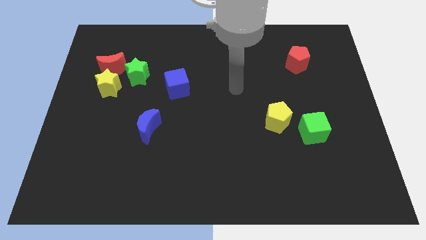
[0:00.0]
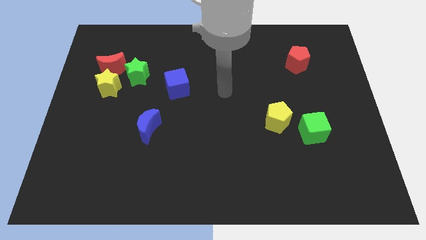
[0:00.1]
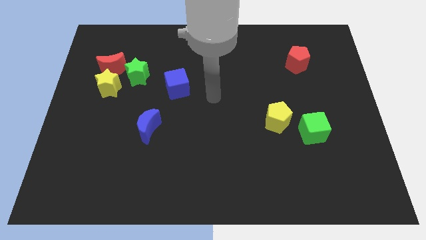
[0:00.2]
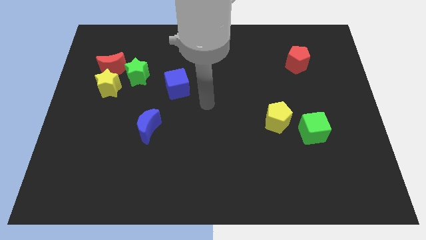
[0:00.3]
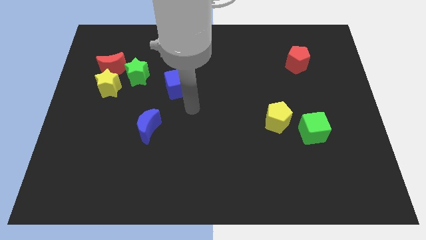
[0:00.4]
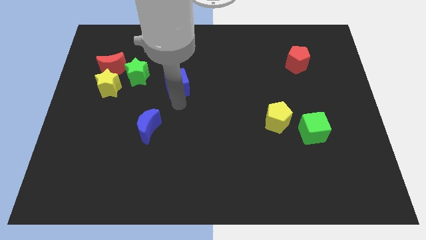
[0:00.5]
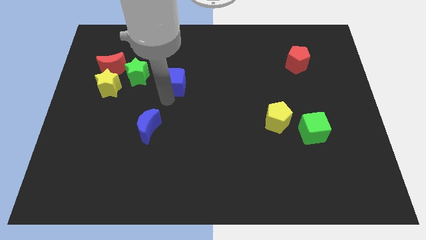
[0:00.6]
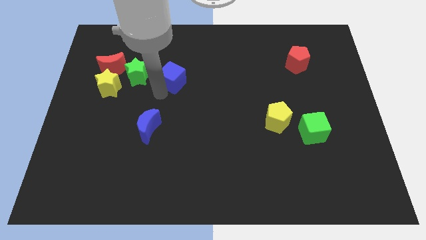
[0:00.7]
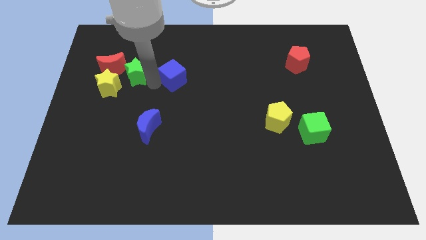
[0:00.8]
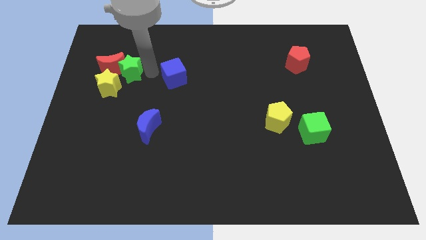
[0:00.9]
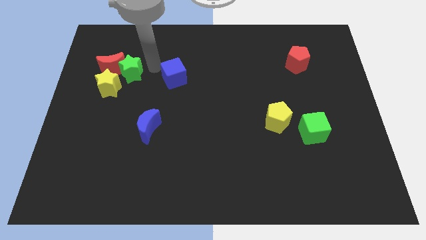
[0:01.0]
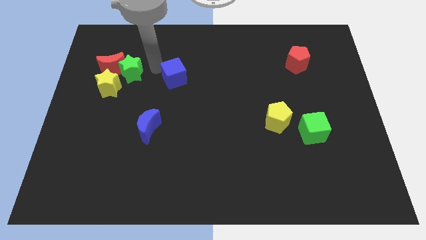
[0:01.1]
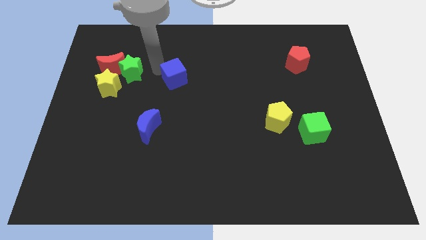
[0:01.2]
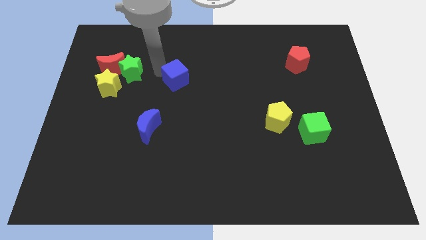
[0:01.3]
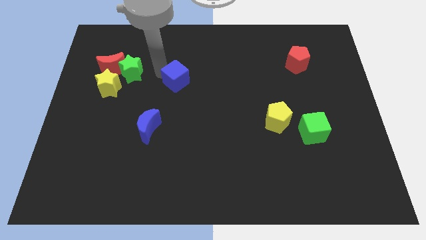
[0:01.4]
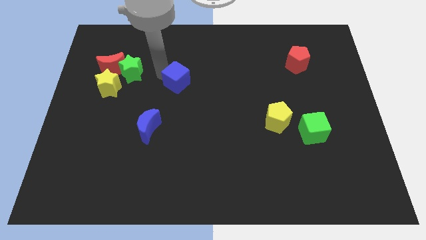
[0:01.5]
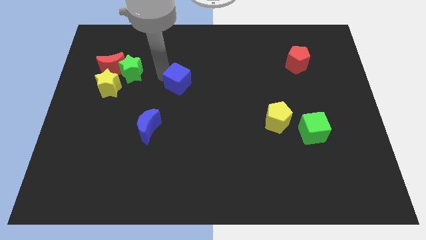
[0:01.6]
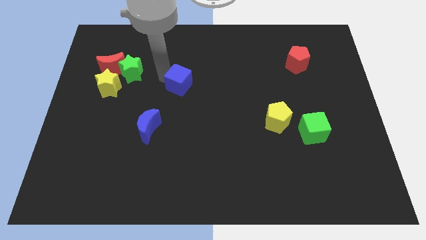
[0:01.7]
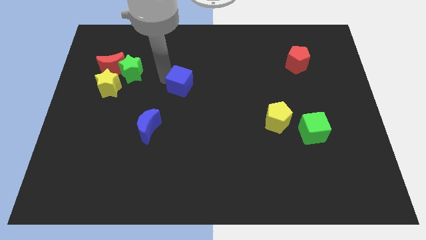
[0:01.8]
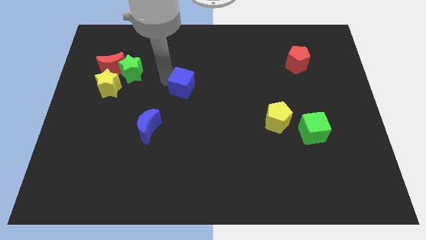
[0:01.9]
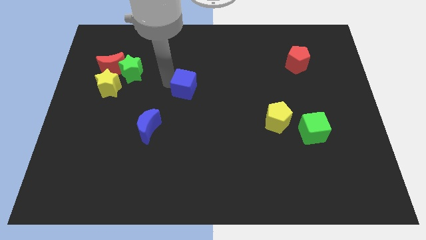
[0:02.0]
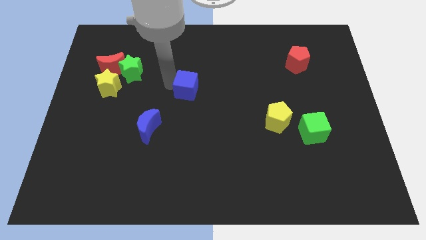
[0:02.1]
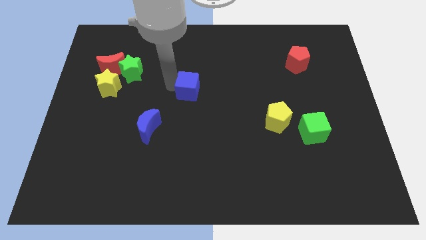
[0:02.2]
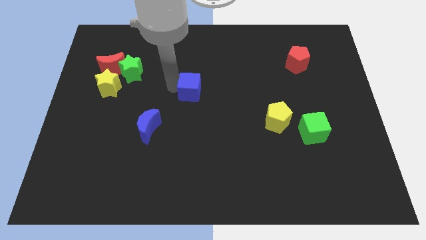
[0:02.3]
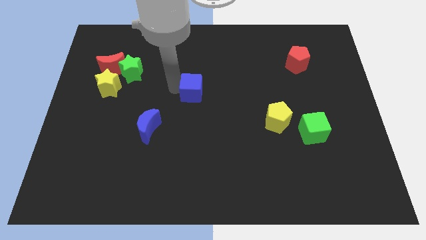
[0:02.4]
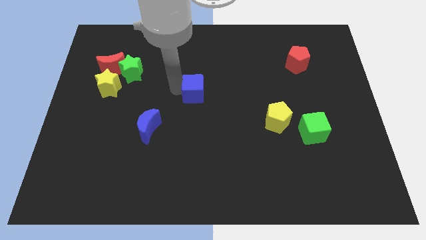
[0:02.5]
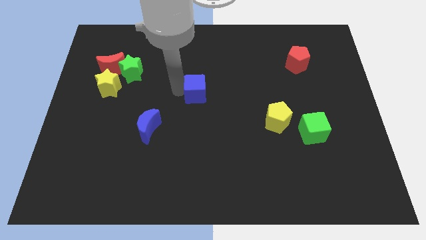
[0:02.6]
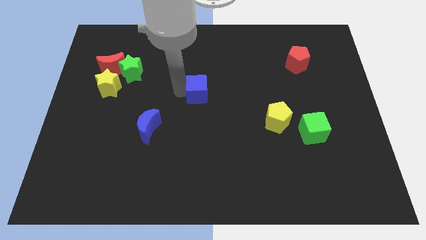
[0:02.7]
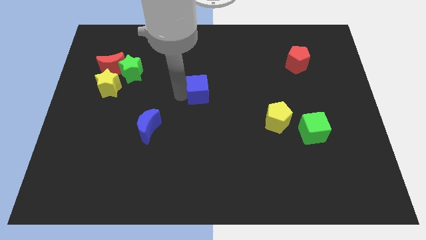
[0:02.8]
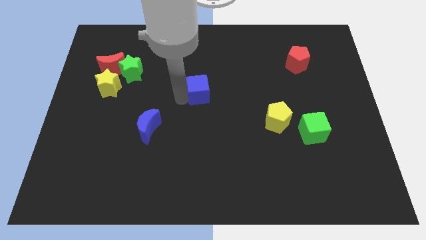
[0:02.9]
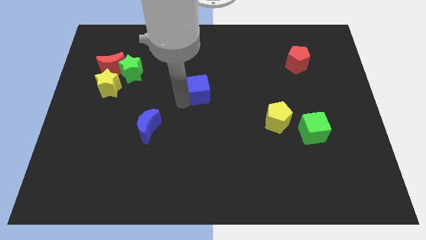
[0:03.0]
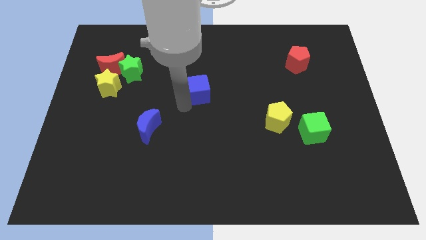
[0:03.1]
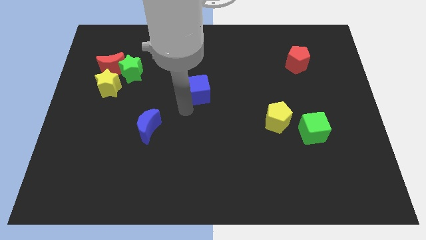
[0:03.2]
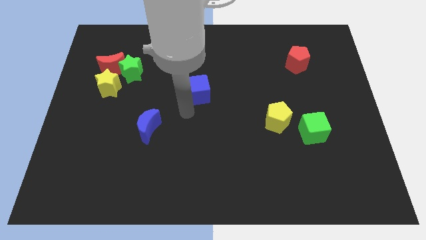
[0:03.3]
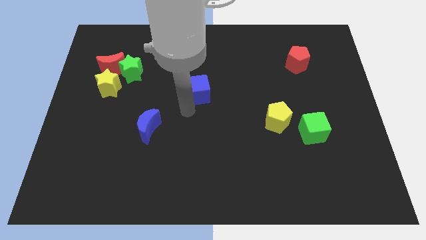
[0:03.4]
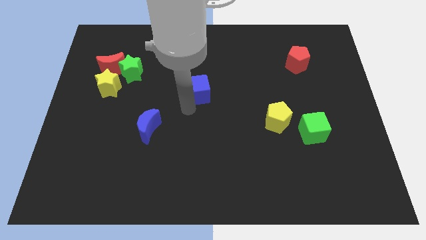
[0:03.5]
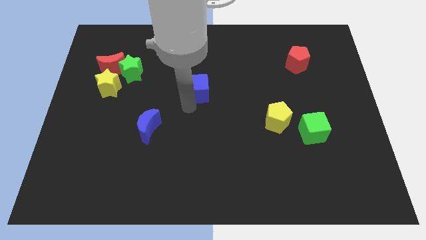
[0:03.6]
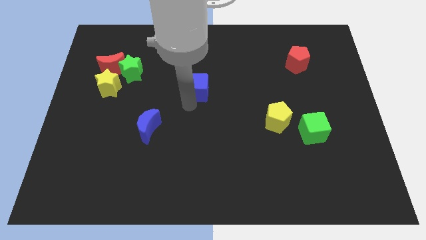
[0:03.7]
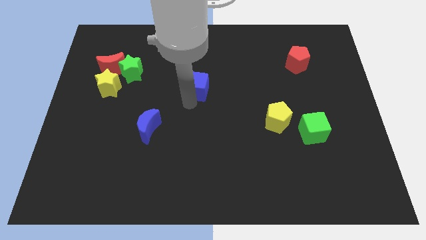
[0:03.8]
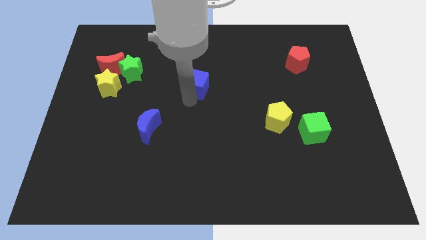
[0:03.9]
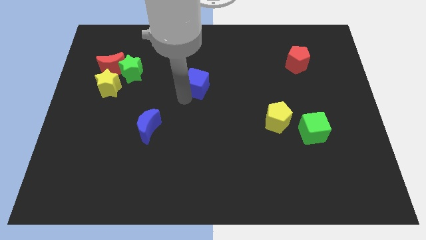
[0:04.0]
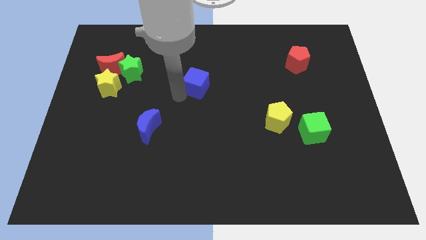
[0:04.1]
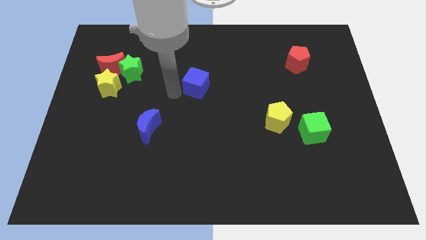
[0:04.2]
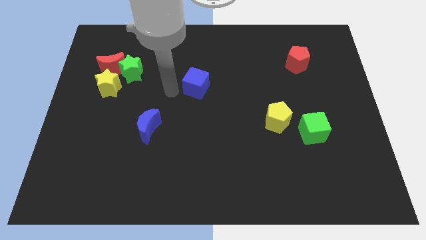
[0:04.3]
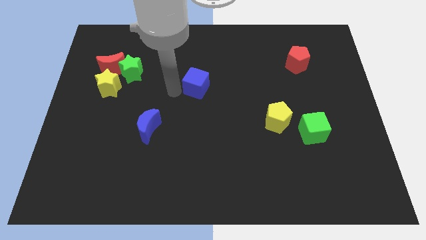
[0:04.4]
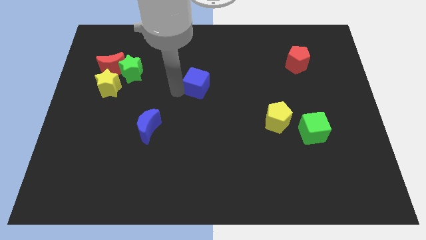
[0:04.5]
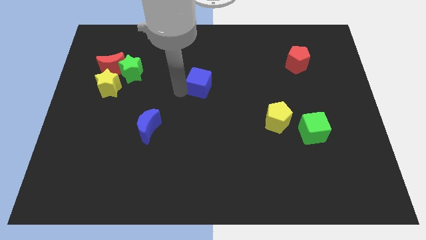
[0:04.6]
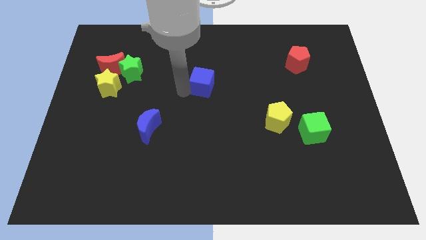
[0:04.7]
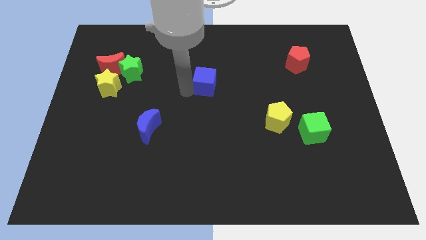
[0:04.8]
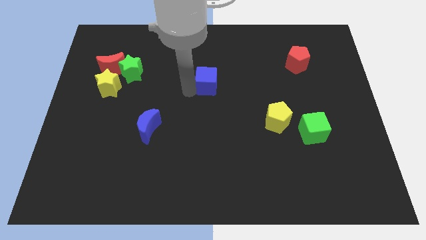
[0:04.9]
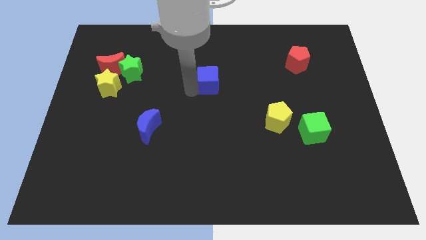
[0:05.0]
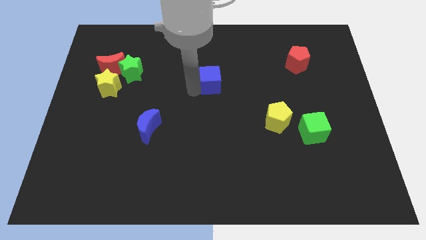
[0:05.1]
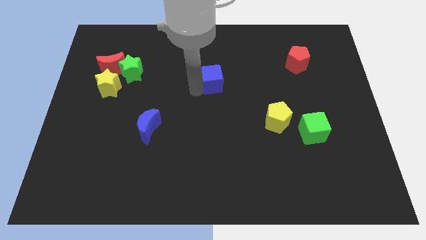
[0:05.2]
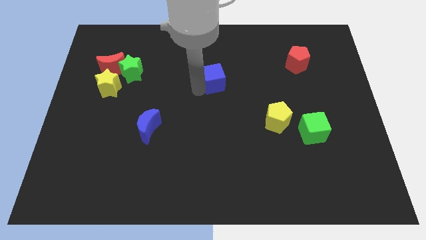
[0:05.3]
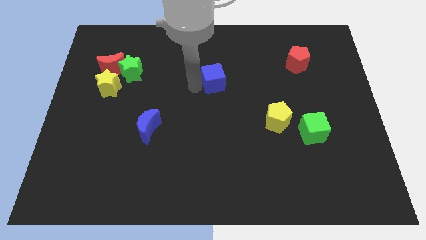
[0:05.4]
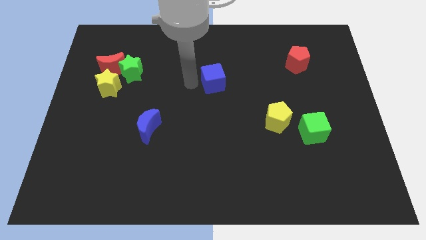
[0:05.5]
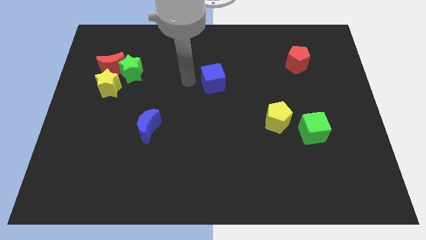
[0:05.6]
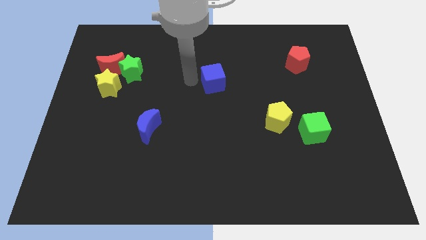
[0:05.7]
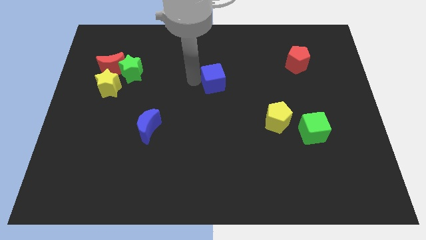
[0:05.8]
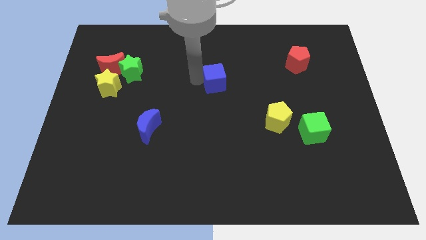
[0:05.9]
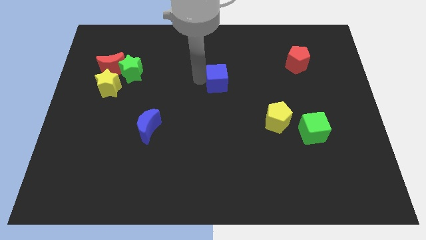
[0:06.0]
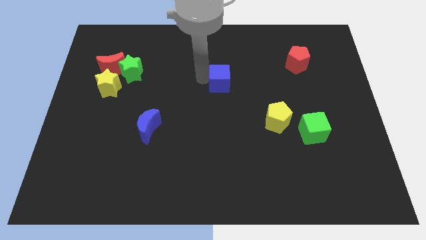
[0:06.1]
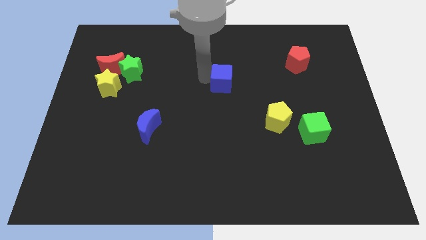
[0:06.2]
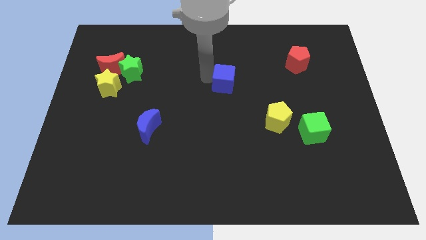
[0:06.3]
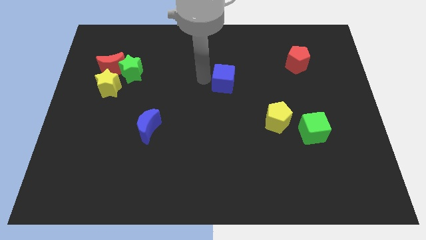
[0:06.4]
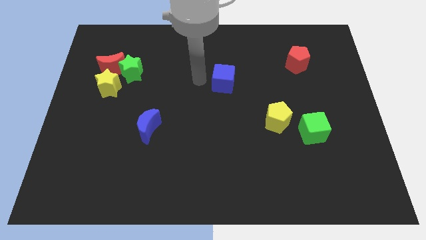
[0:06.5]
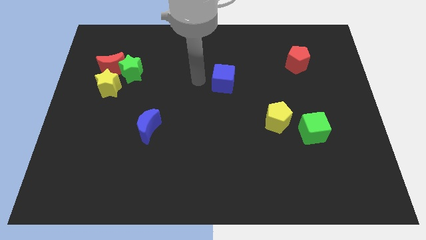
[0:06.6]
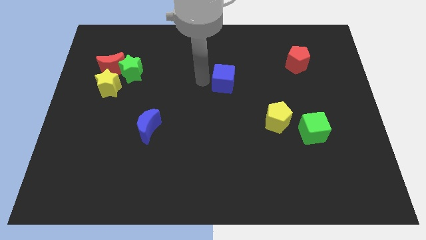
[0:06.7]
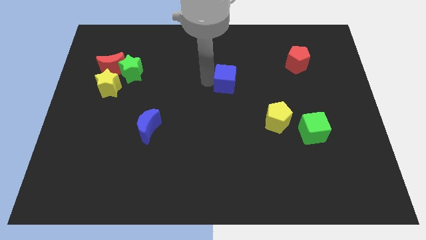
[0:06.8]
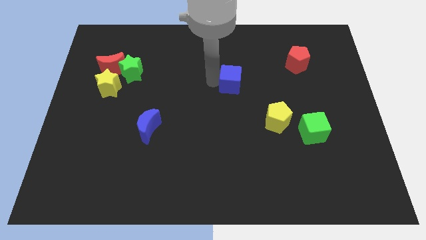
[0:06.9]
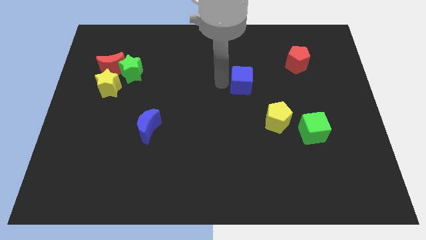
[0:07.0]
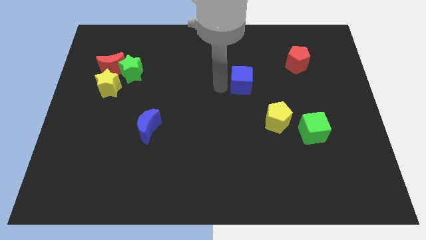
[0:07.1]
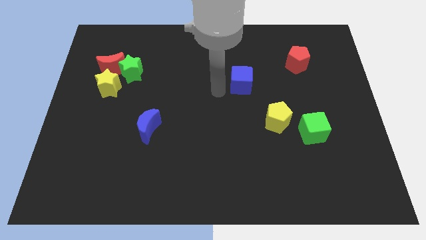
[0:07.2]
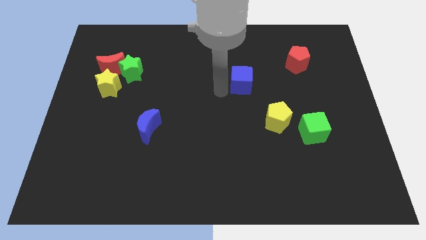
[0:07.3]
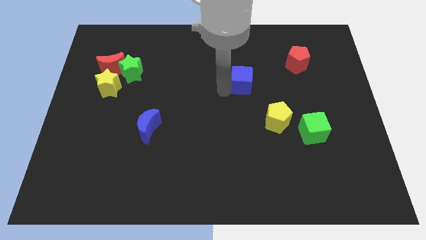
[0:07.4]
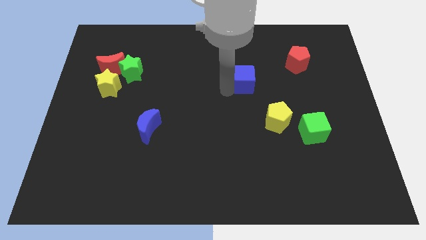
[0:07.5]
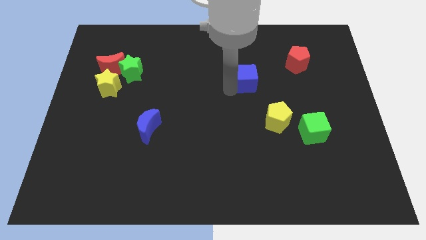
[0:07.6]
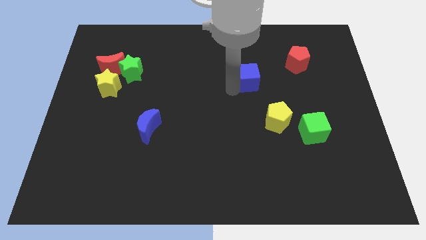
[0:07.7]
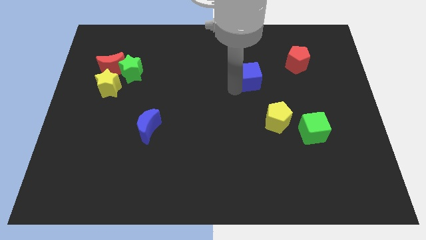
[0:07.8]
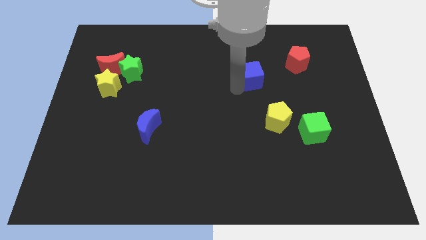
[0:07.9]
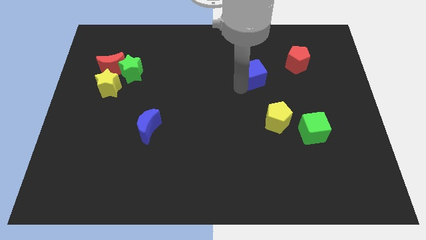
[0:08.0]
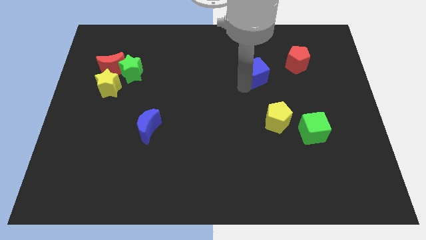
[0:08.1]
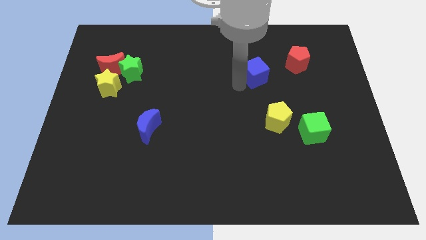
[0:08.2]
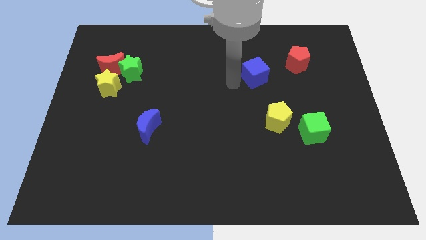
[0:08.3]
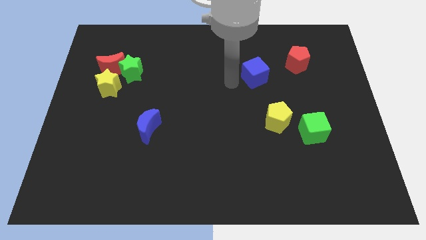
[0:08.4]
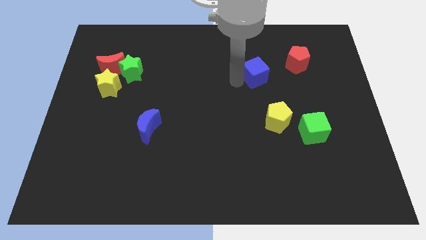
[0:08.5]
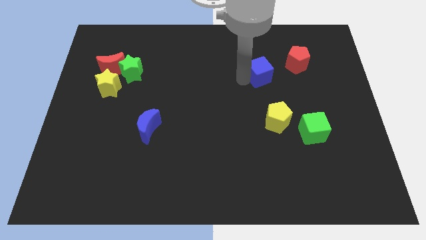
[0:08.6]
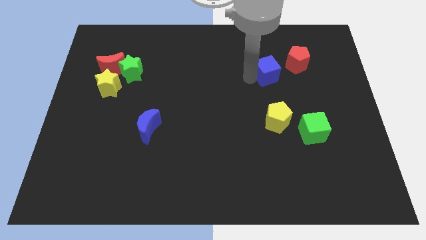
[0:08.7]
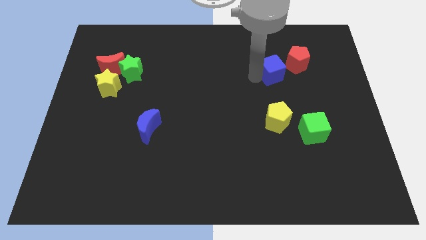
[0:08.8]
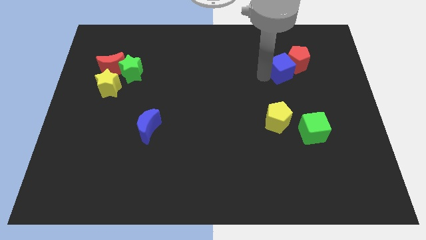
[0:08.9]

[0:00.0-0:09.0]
push the blue cube close to the red pentagon

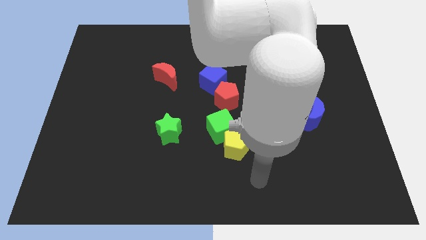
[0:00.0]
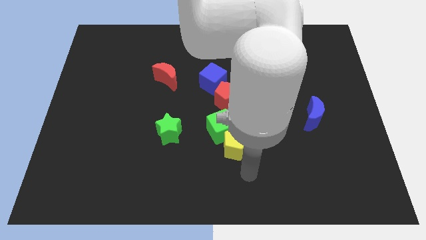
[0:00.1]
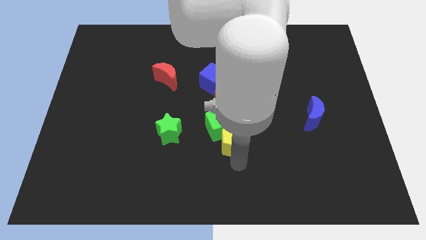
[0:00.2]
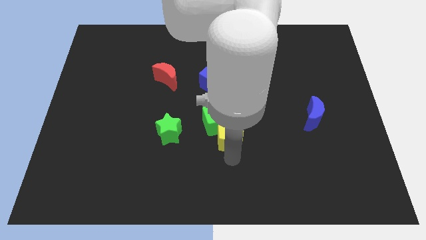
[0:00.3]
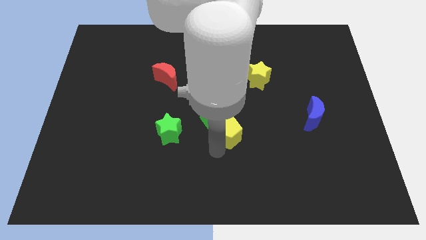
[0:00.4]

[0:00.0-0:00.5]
slide the green cube close to the red pentagon
